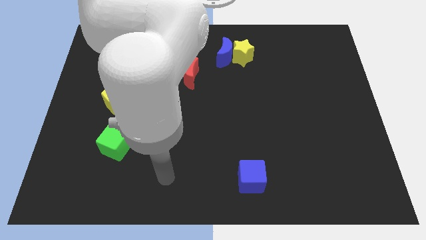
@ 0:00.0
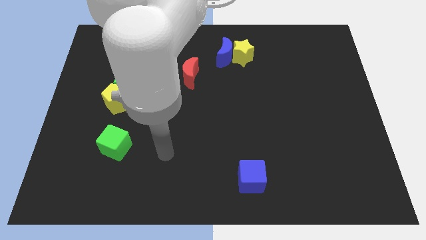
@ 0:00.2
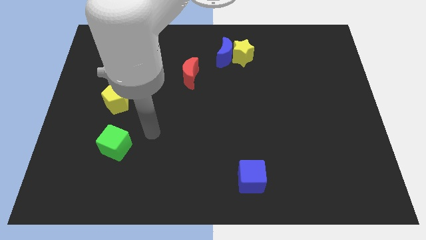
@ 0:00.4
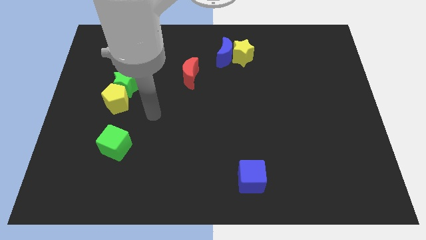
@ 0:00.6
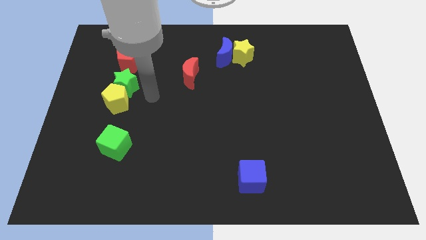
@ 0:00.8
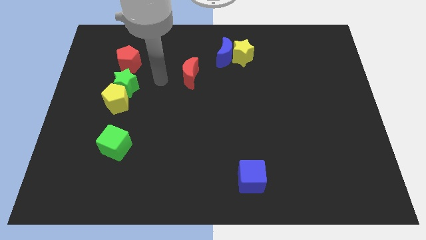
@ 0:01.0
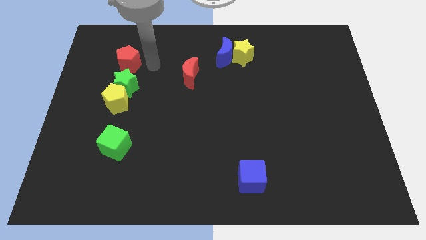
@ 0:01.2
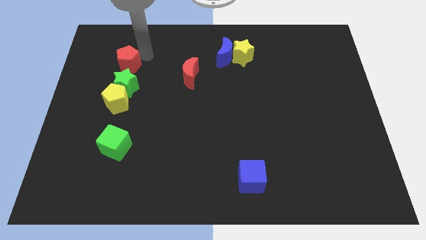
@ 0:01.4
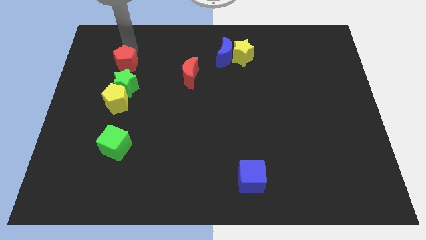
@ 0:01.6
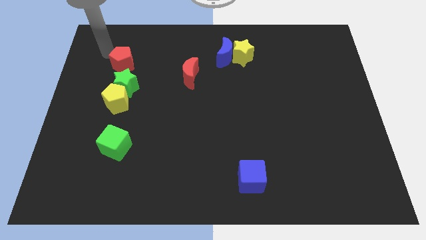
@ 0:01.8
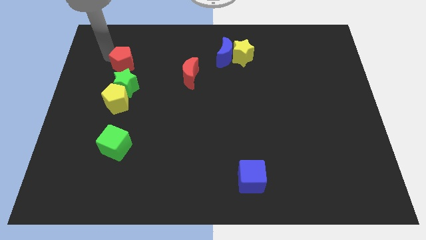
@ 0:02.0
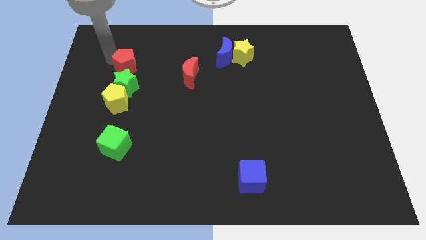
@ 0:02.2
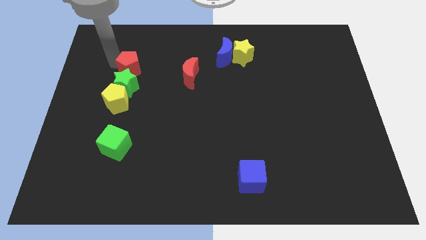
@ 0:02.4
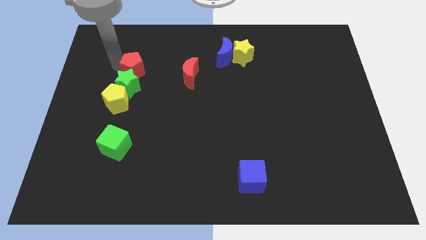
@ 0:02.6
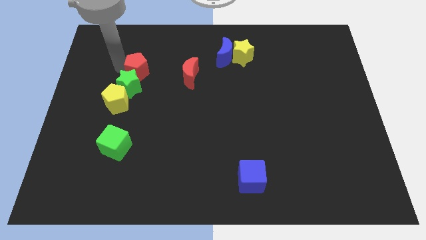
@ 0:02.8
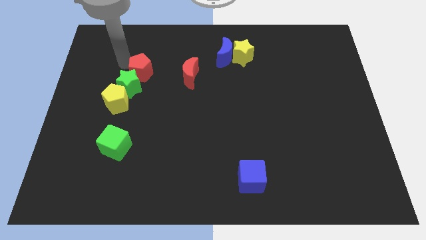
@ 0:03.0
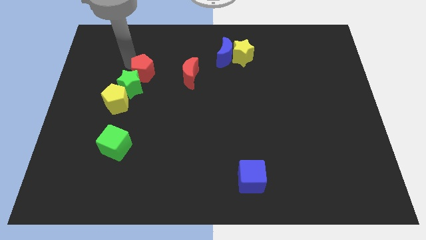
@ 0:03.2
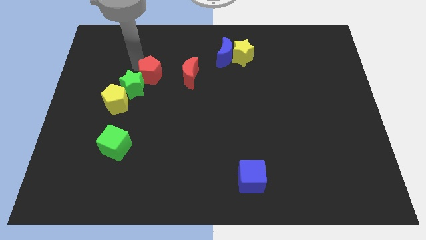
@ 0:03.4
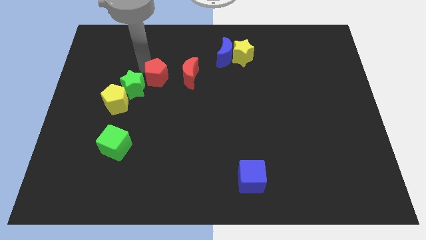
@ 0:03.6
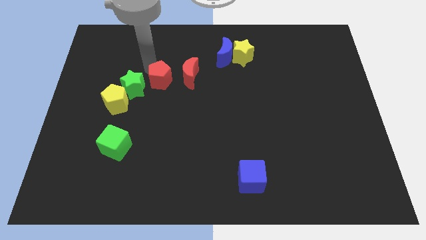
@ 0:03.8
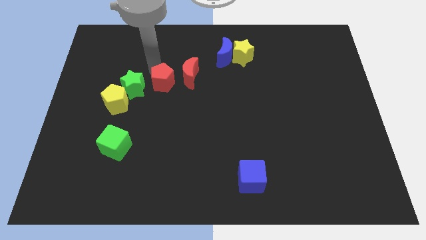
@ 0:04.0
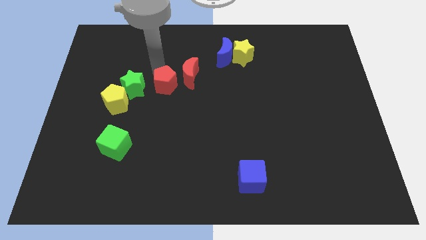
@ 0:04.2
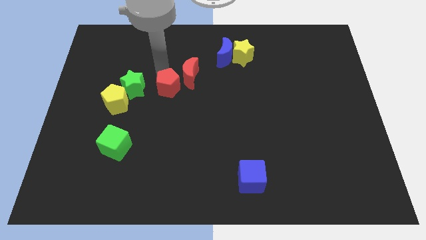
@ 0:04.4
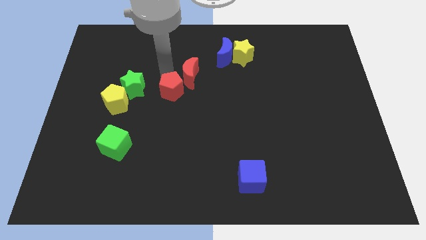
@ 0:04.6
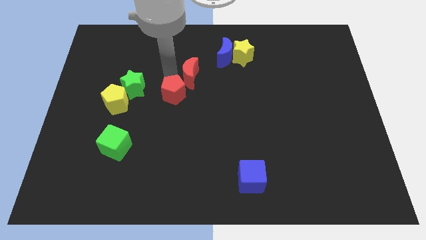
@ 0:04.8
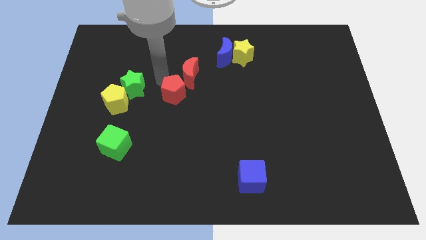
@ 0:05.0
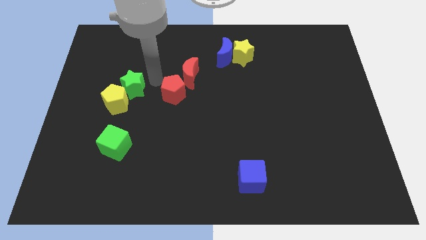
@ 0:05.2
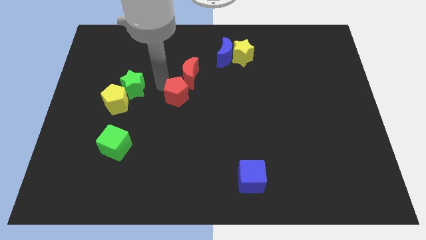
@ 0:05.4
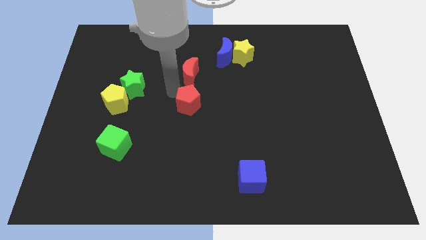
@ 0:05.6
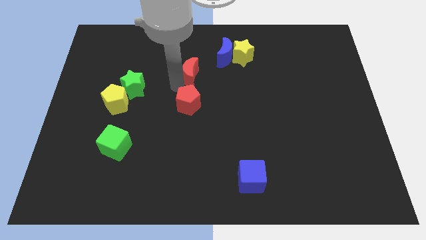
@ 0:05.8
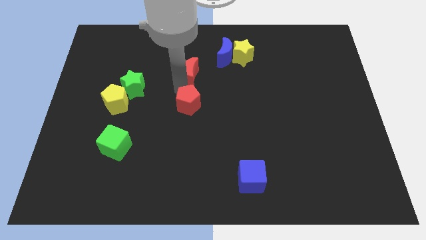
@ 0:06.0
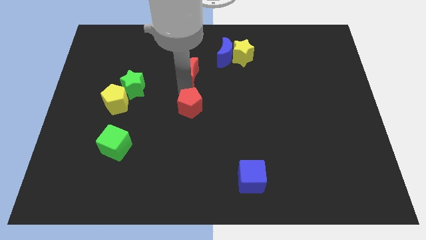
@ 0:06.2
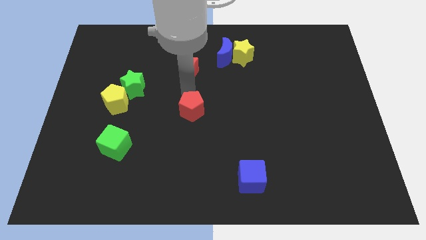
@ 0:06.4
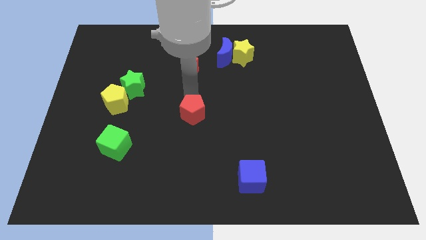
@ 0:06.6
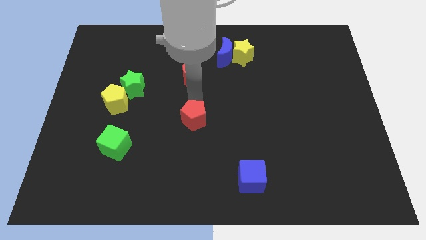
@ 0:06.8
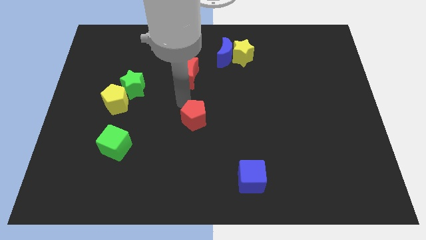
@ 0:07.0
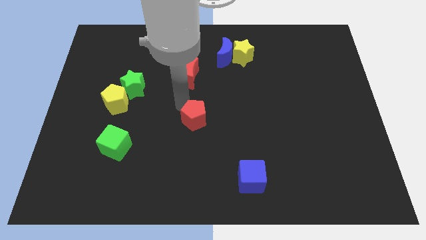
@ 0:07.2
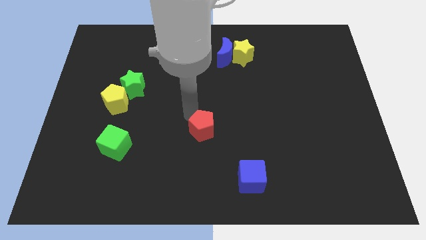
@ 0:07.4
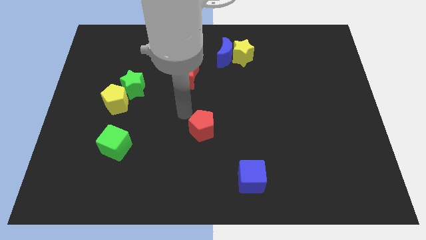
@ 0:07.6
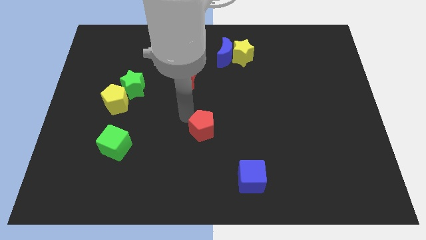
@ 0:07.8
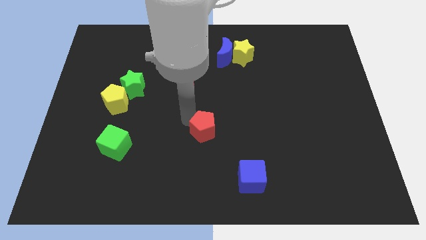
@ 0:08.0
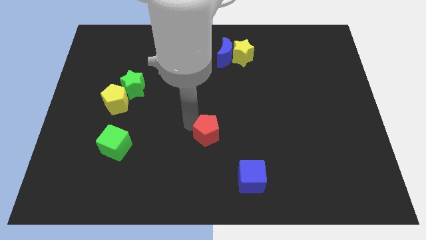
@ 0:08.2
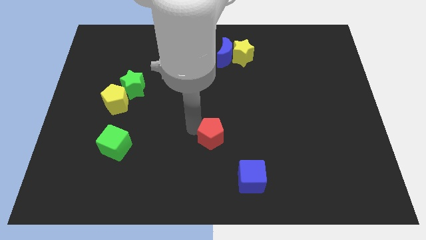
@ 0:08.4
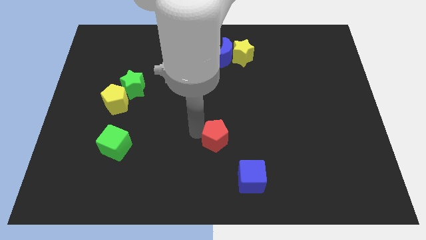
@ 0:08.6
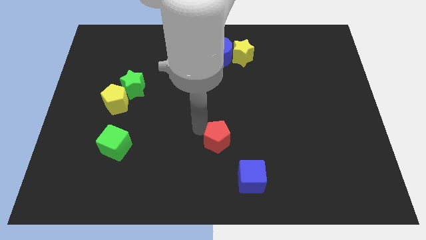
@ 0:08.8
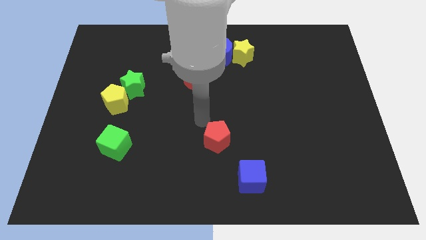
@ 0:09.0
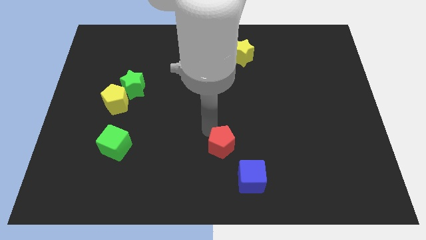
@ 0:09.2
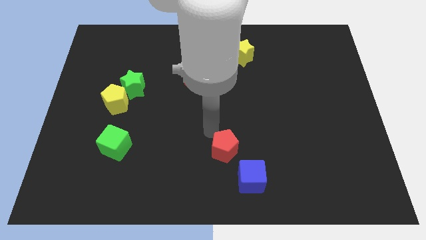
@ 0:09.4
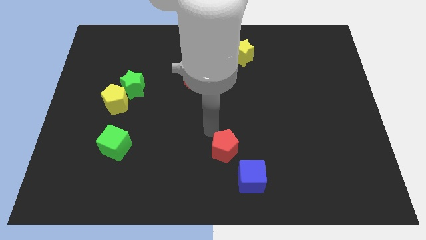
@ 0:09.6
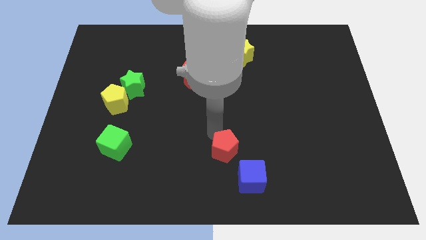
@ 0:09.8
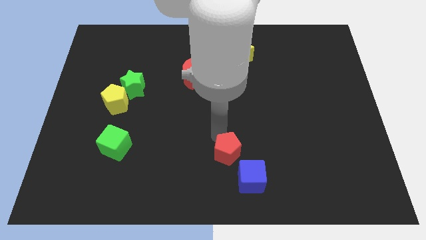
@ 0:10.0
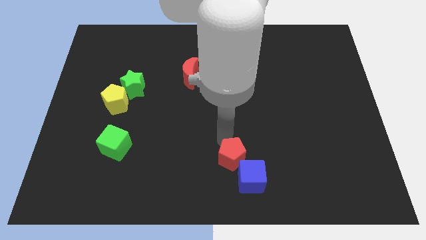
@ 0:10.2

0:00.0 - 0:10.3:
put the red pentagon towards the blue cube

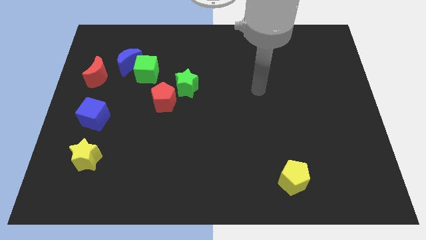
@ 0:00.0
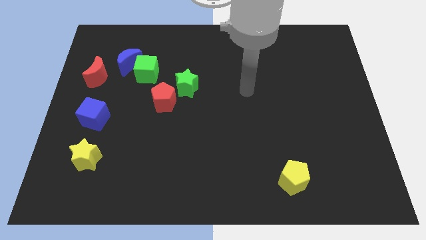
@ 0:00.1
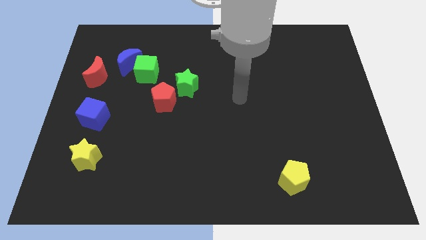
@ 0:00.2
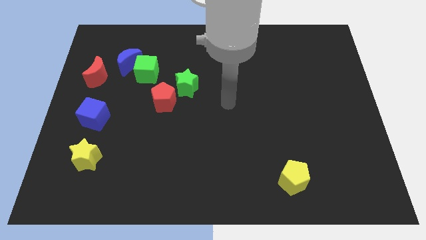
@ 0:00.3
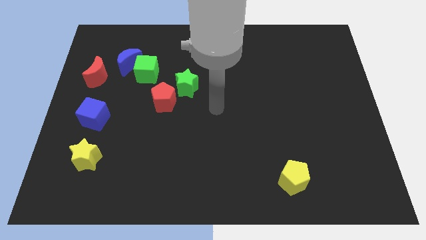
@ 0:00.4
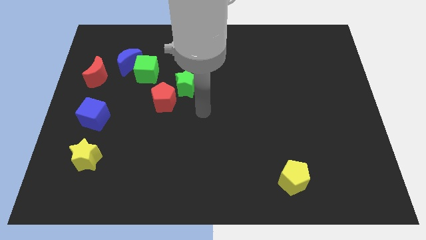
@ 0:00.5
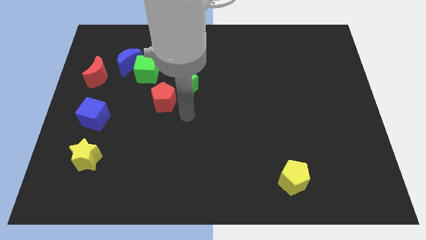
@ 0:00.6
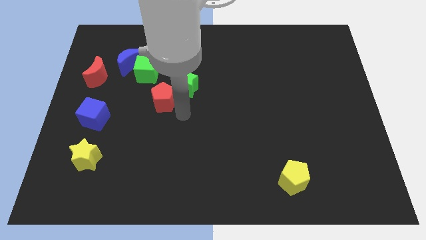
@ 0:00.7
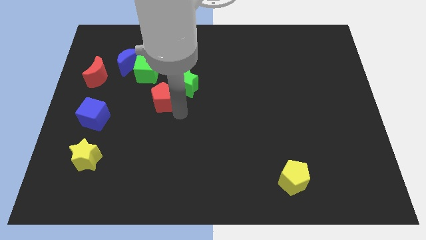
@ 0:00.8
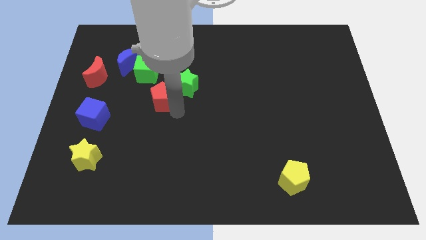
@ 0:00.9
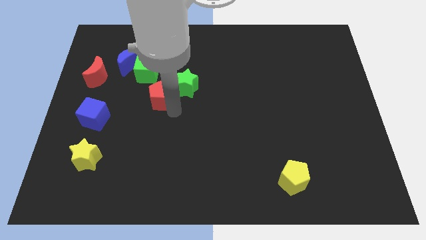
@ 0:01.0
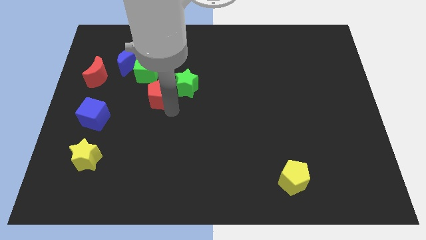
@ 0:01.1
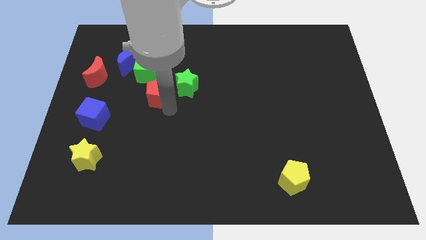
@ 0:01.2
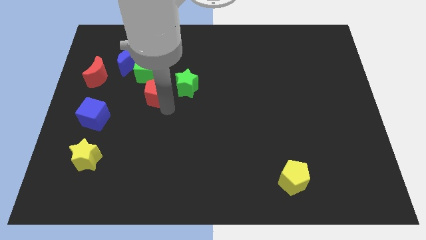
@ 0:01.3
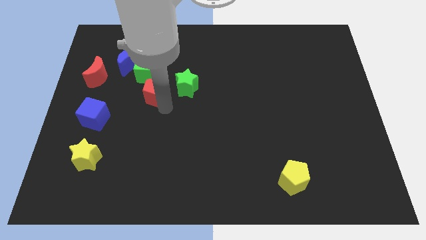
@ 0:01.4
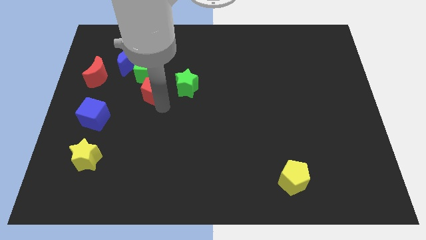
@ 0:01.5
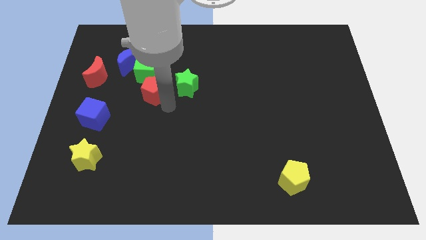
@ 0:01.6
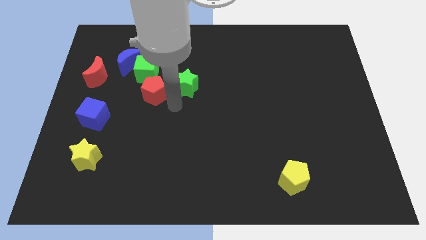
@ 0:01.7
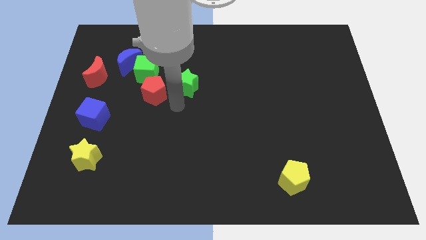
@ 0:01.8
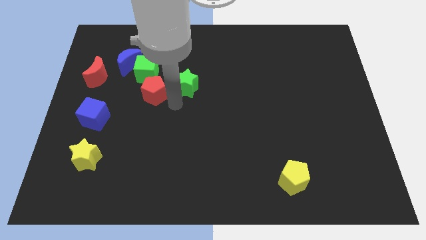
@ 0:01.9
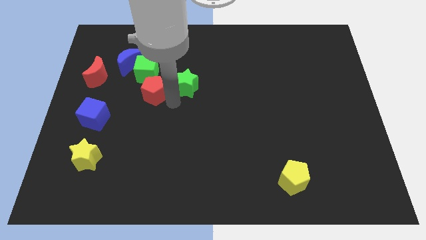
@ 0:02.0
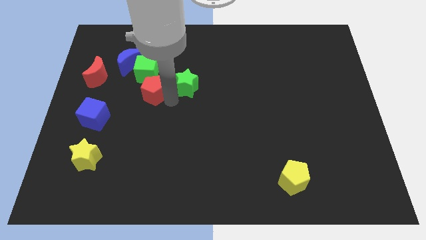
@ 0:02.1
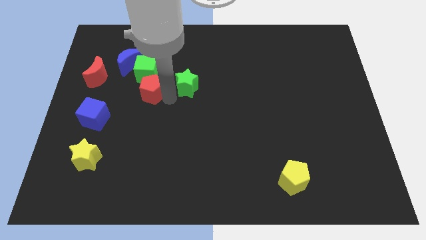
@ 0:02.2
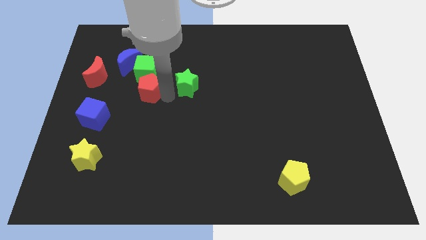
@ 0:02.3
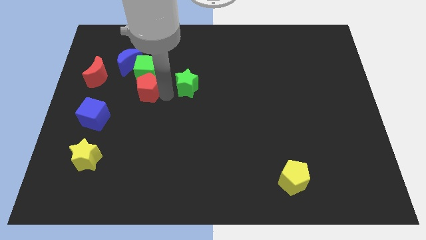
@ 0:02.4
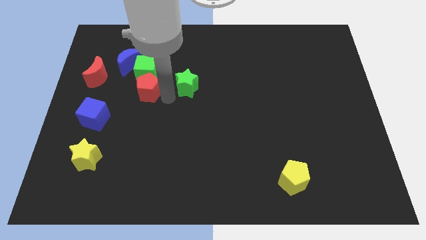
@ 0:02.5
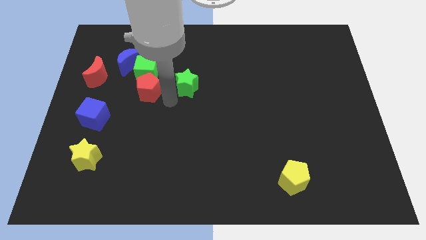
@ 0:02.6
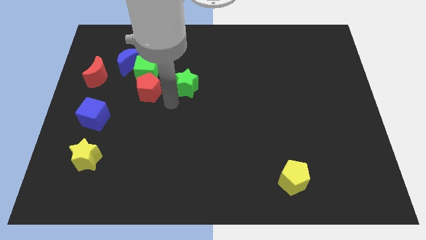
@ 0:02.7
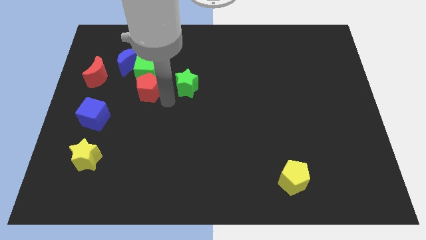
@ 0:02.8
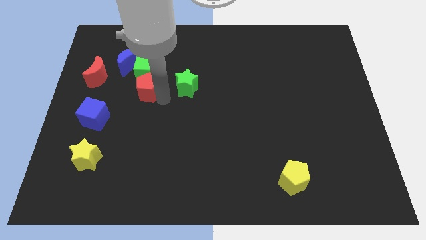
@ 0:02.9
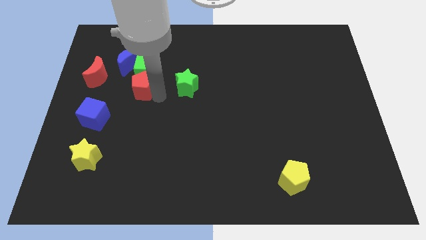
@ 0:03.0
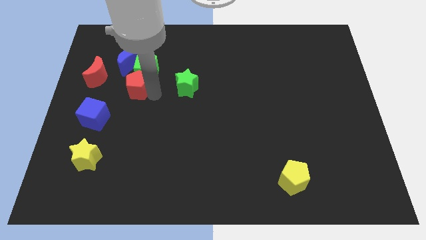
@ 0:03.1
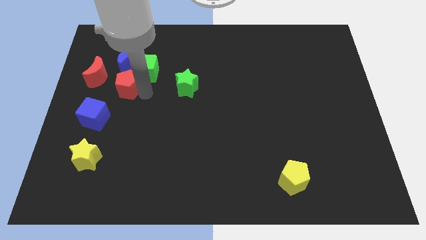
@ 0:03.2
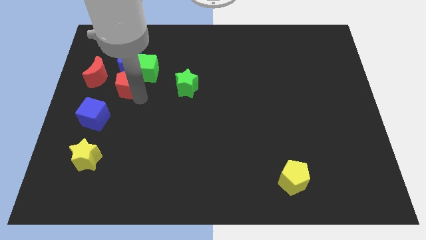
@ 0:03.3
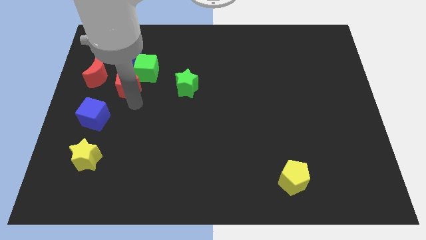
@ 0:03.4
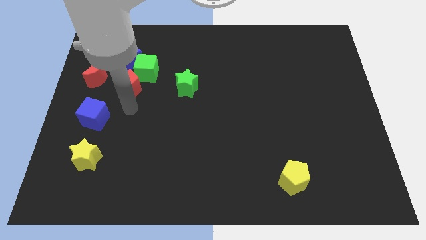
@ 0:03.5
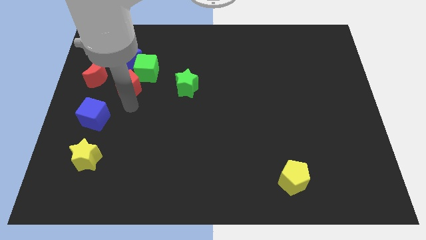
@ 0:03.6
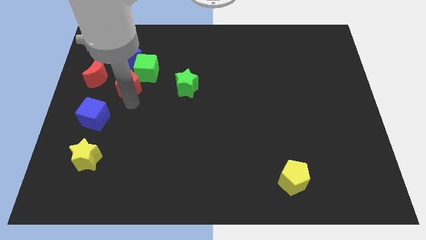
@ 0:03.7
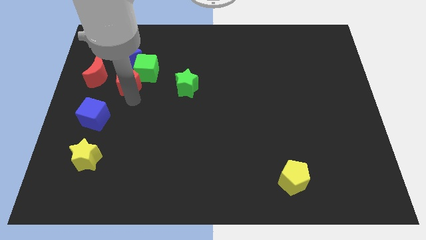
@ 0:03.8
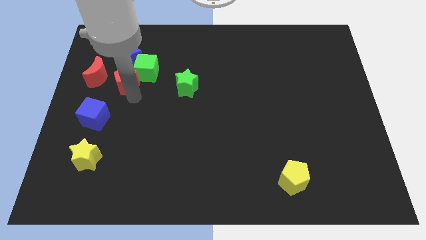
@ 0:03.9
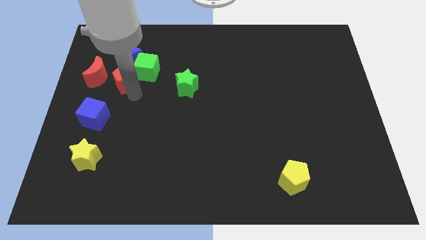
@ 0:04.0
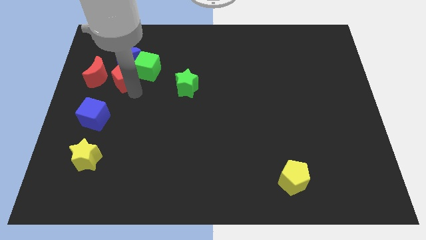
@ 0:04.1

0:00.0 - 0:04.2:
put the red pentagon next to the blue moon
